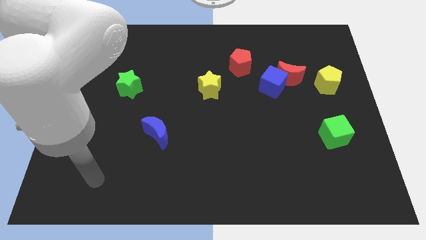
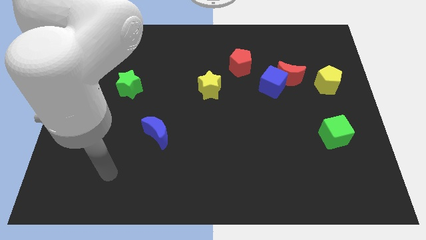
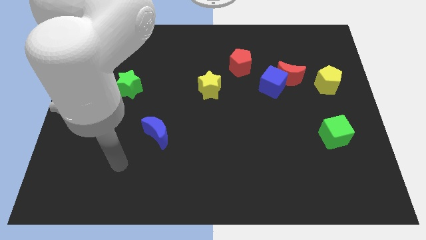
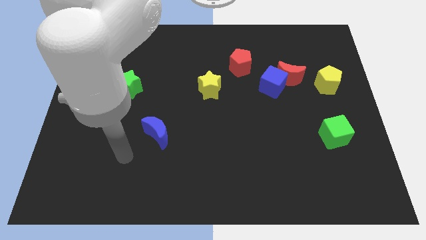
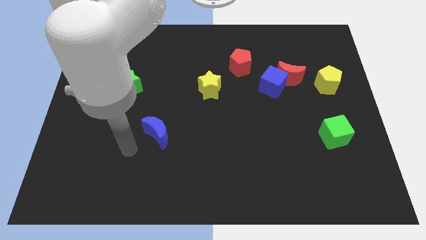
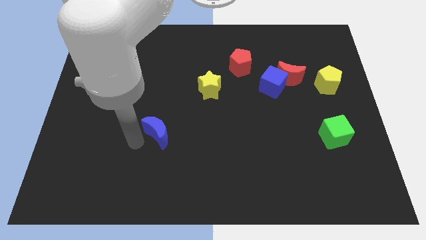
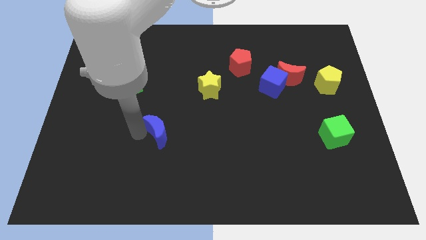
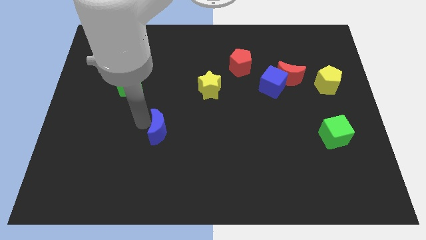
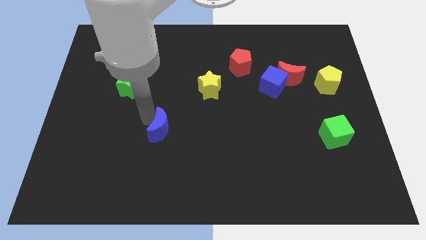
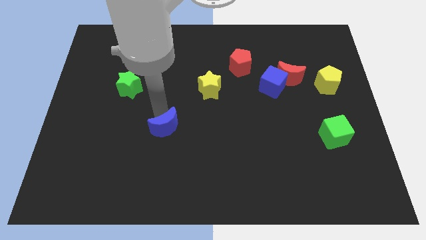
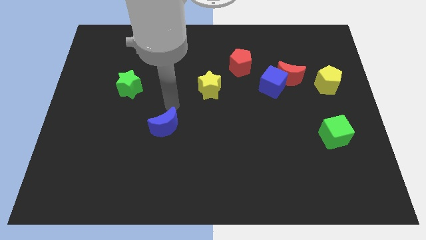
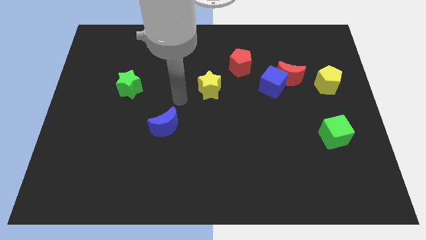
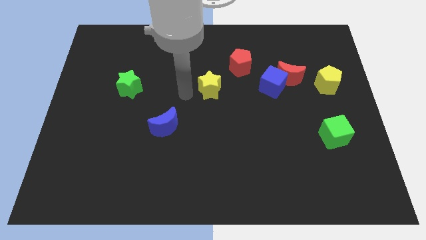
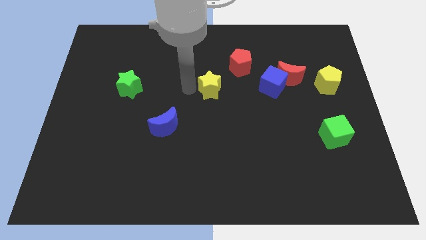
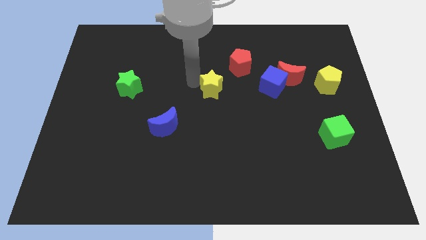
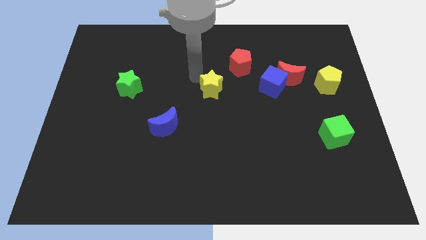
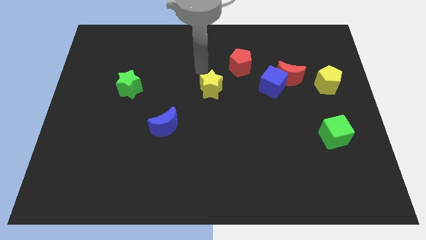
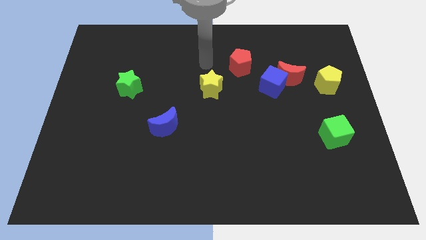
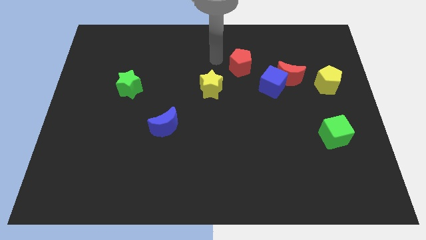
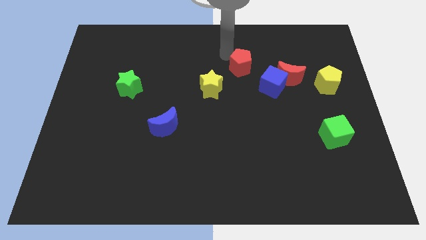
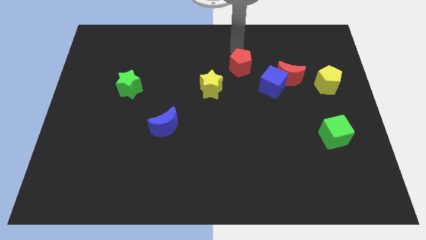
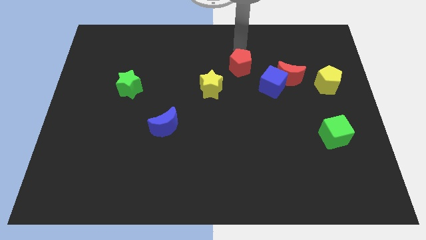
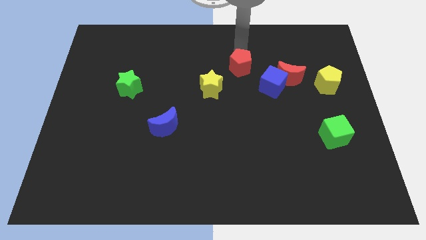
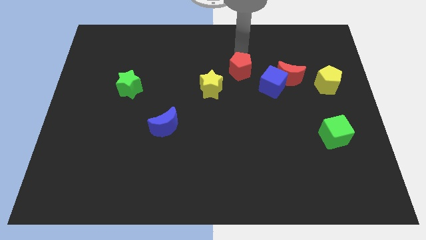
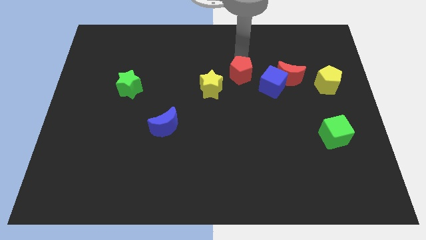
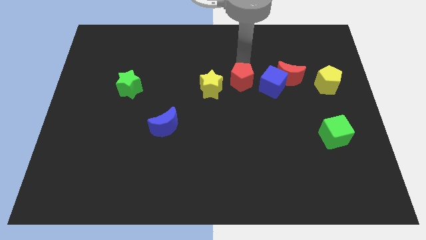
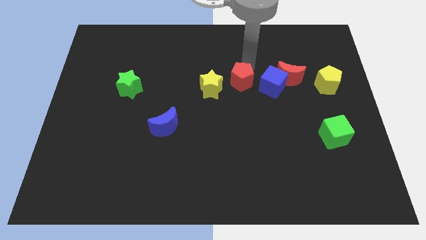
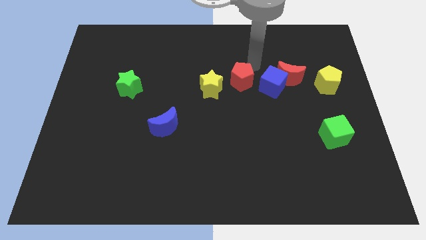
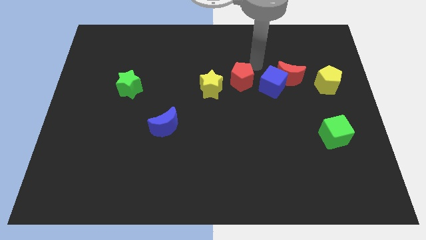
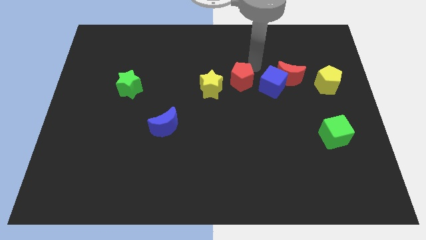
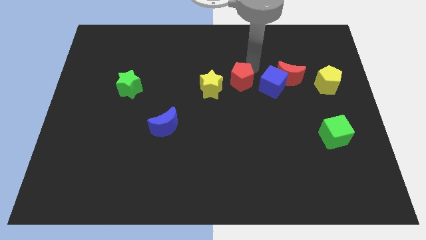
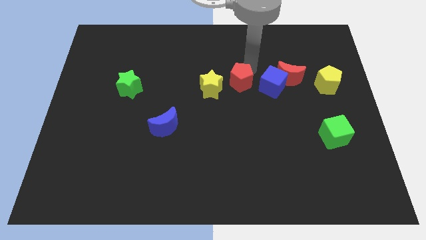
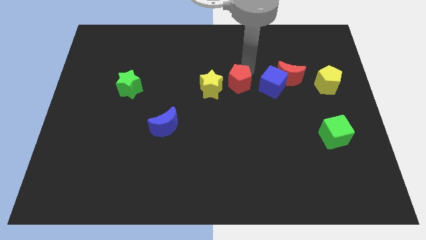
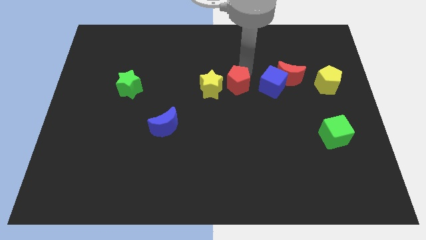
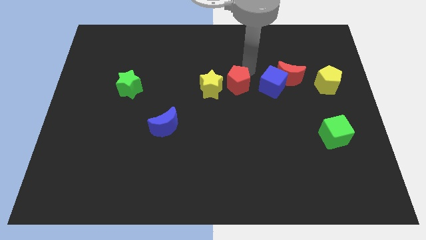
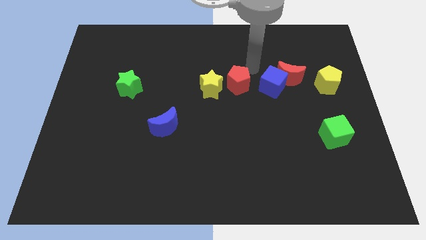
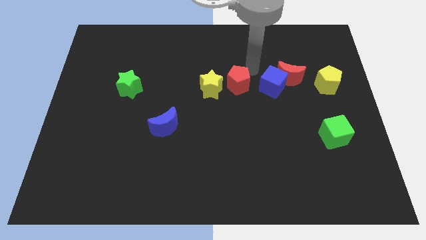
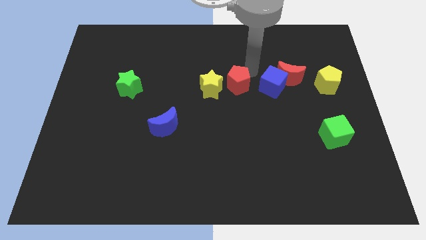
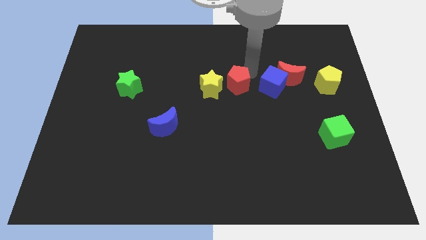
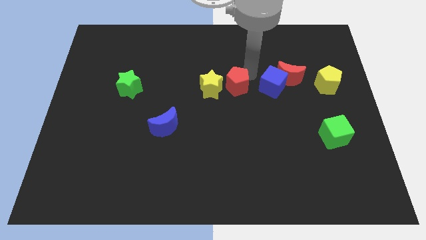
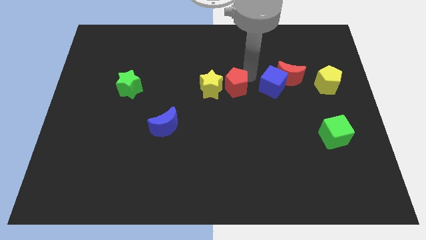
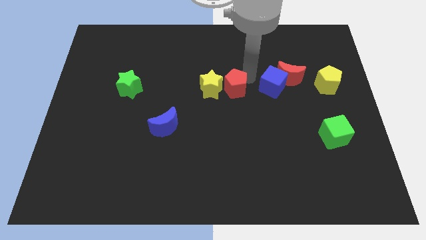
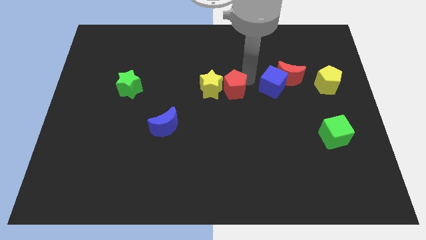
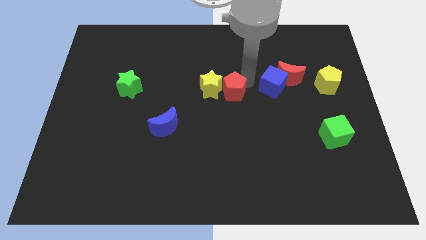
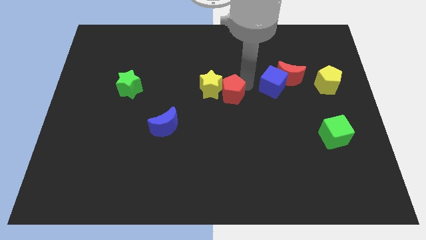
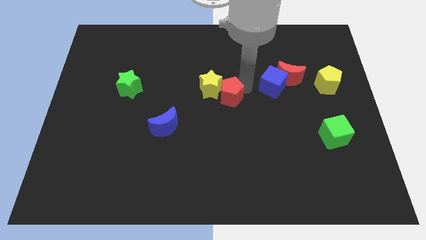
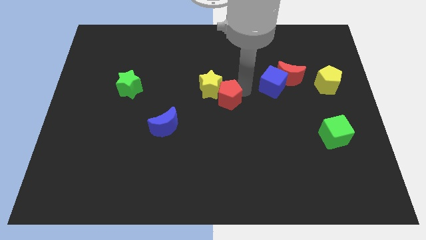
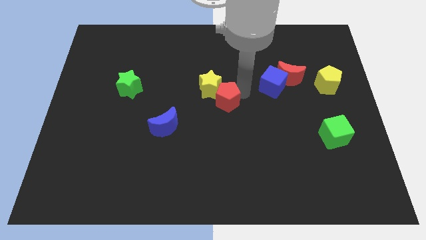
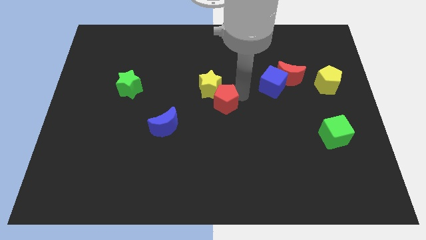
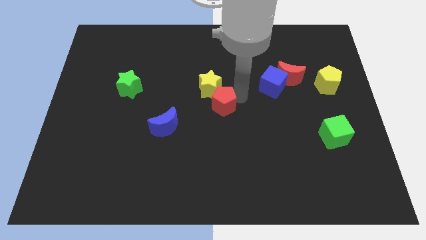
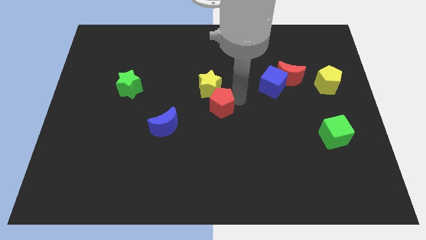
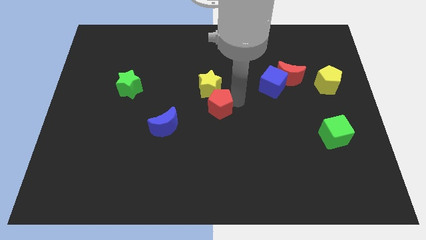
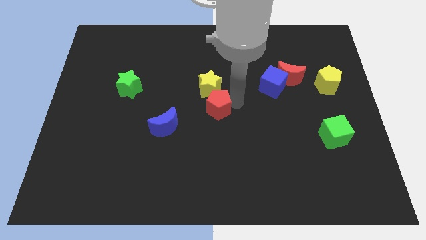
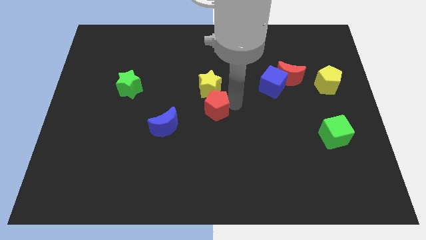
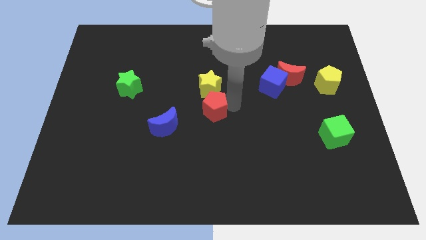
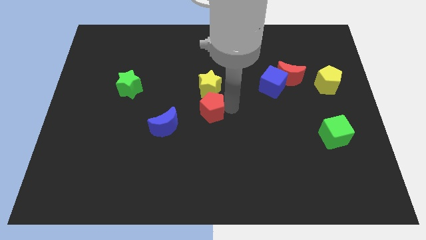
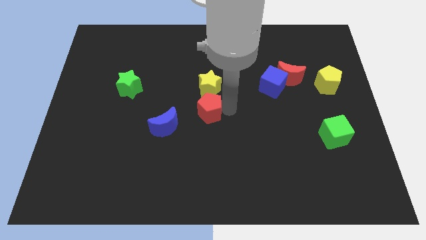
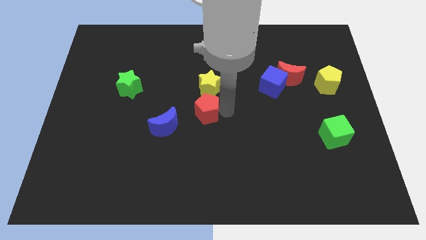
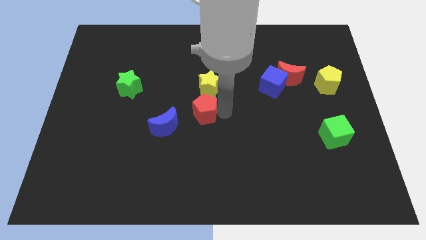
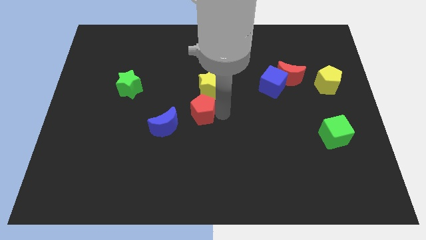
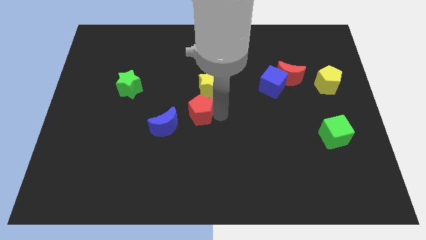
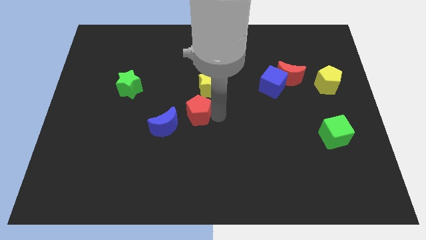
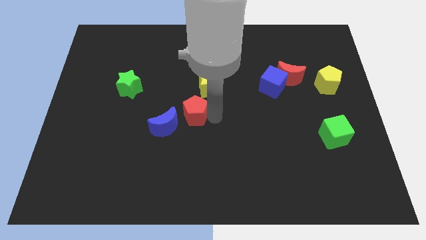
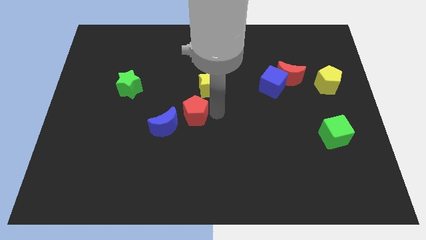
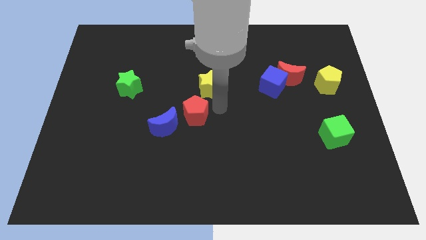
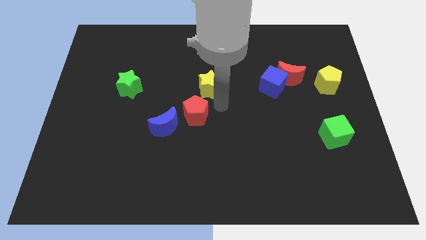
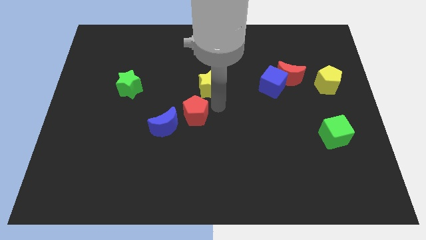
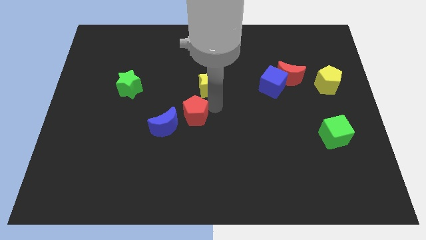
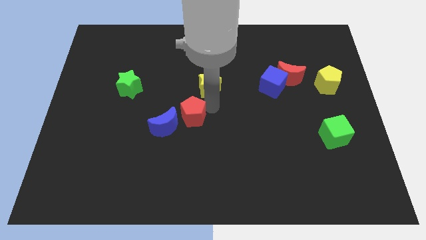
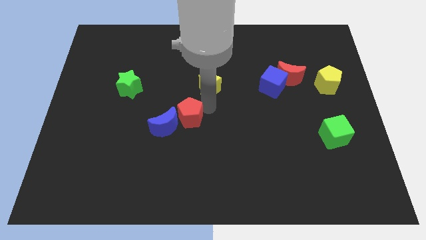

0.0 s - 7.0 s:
slide the red pentagon towards the blue moon
